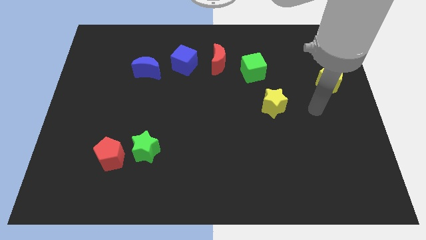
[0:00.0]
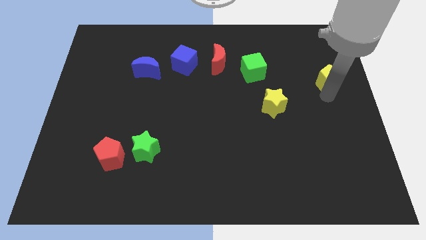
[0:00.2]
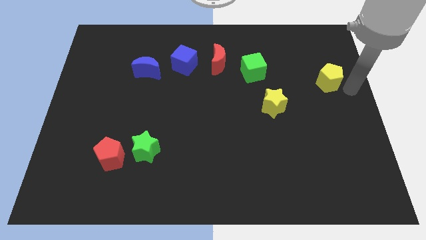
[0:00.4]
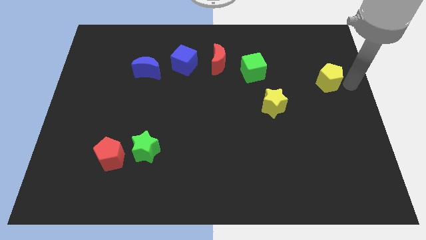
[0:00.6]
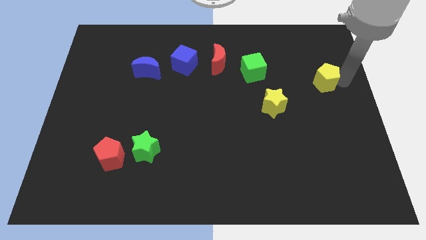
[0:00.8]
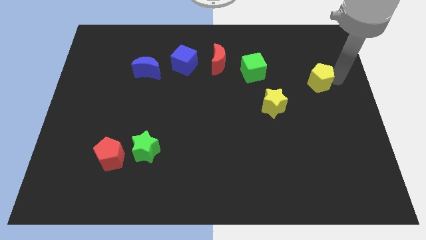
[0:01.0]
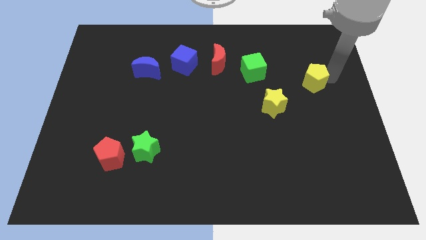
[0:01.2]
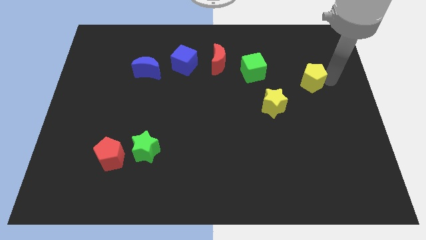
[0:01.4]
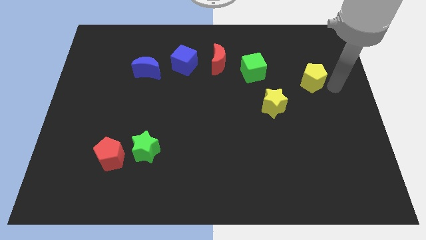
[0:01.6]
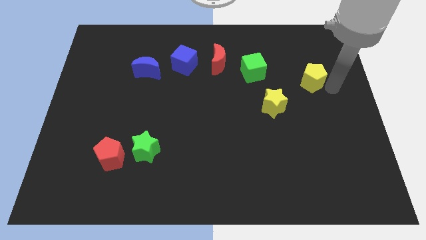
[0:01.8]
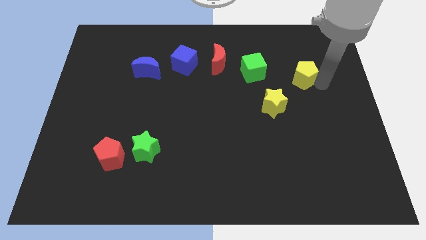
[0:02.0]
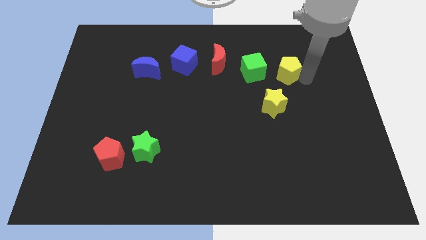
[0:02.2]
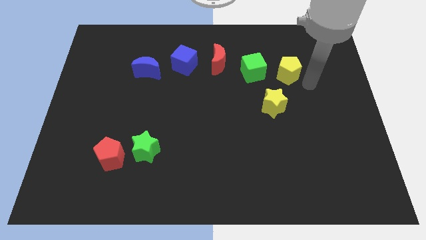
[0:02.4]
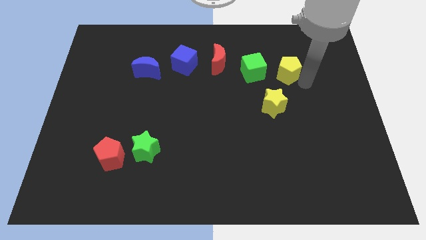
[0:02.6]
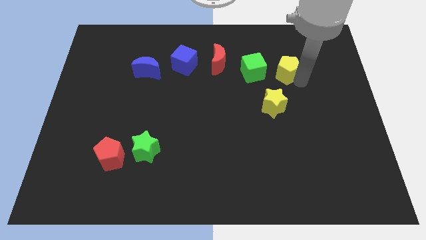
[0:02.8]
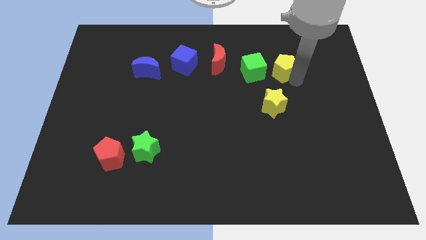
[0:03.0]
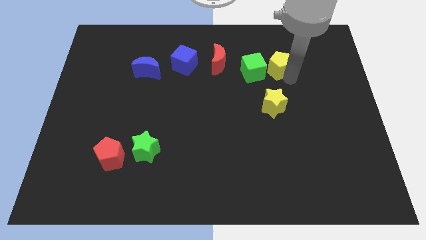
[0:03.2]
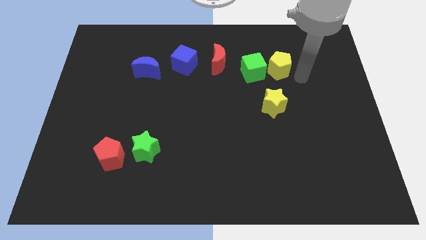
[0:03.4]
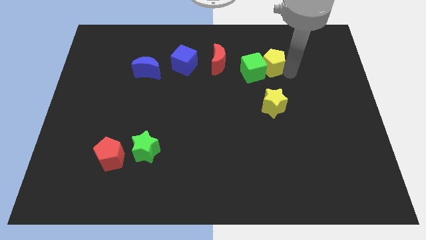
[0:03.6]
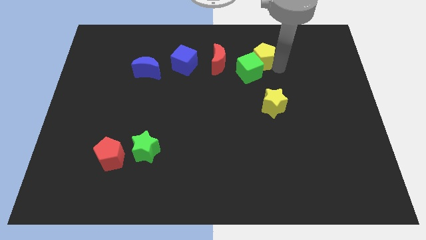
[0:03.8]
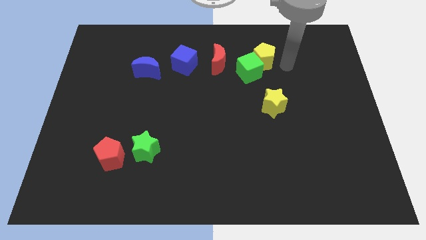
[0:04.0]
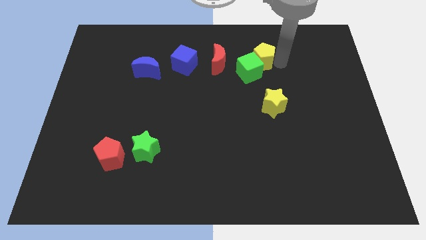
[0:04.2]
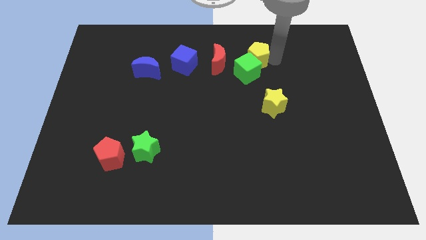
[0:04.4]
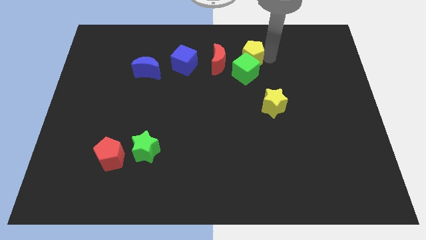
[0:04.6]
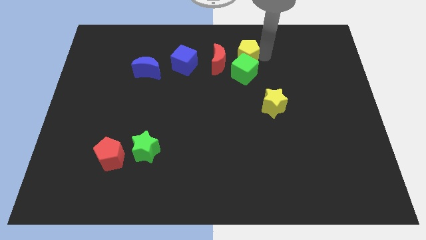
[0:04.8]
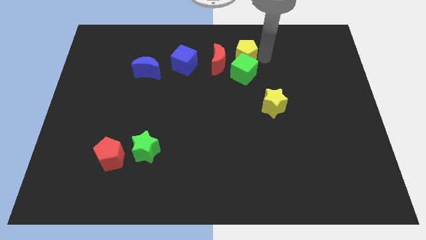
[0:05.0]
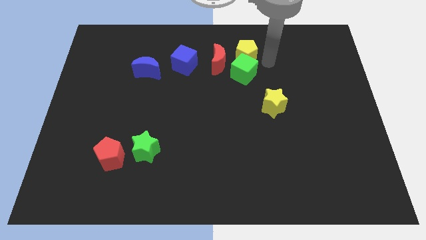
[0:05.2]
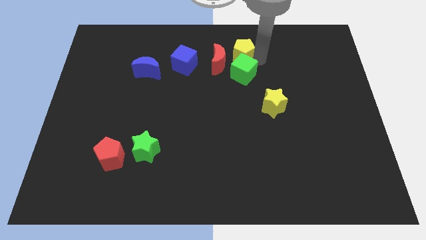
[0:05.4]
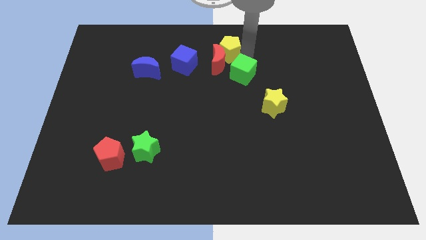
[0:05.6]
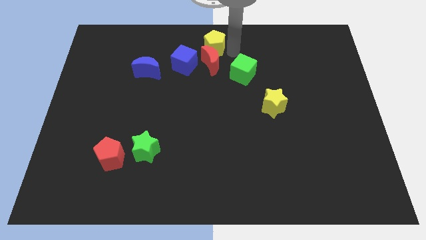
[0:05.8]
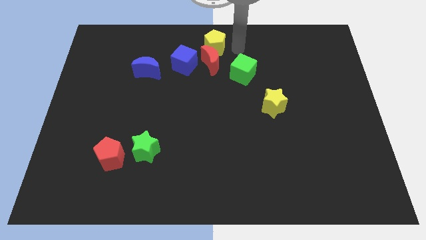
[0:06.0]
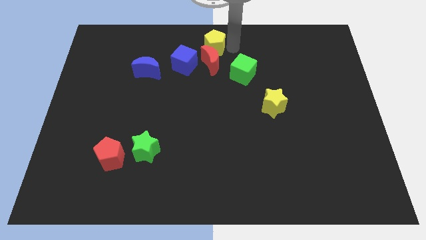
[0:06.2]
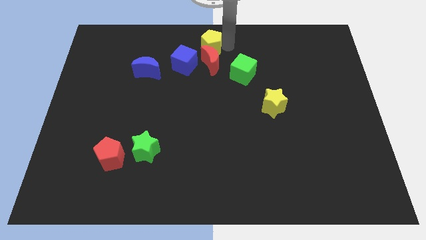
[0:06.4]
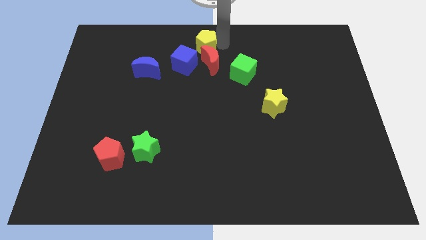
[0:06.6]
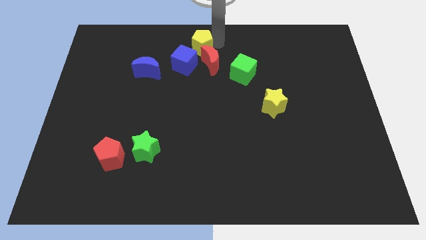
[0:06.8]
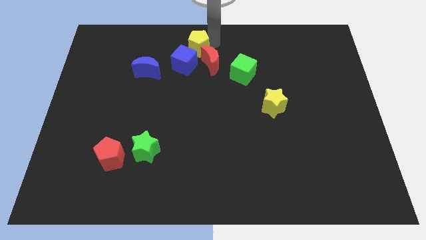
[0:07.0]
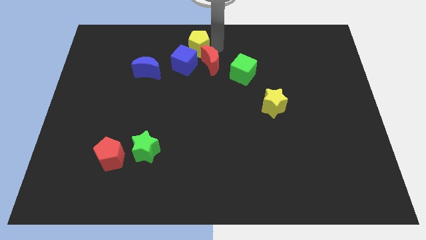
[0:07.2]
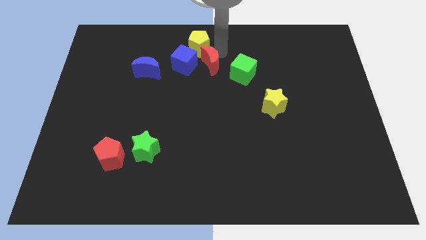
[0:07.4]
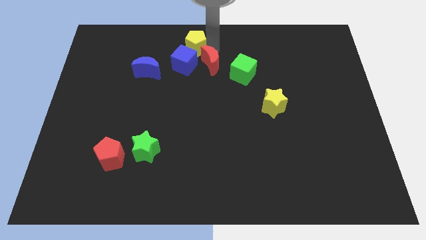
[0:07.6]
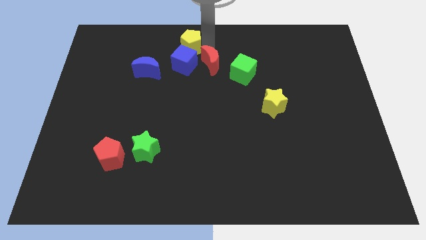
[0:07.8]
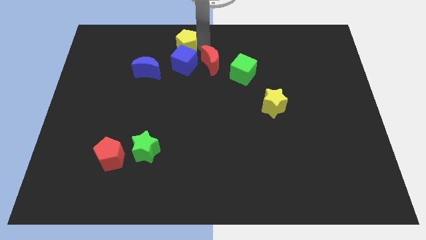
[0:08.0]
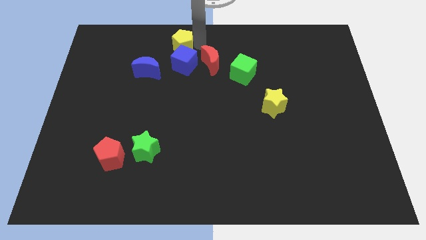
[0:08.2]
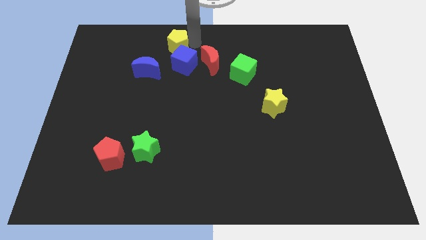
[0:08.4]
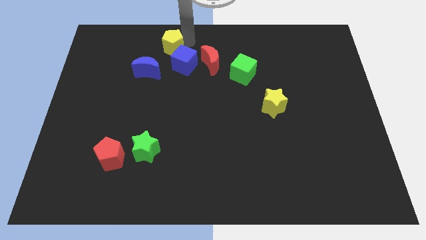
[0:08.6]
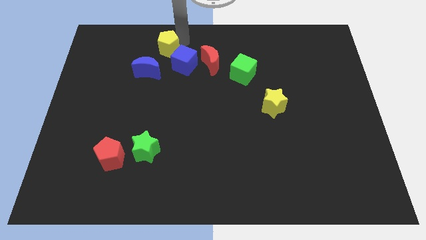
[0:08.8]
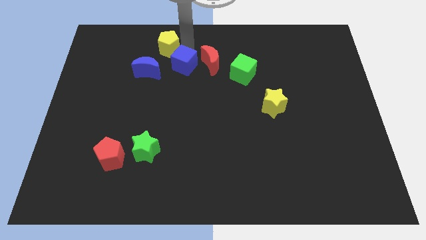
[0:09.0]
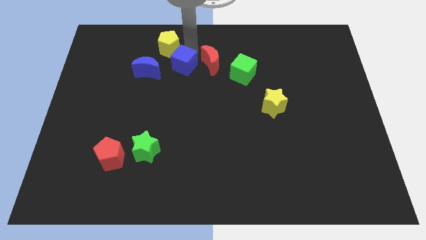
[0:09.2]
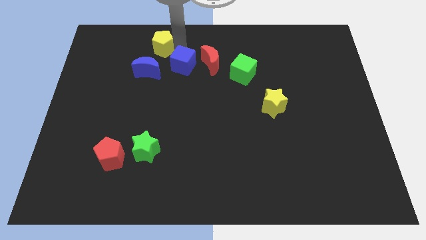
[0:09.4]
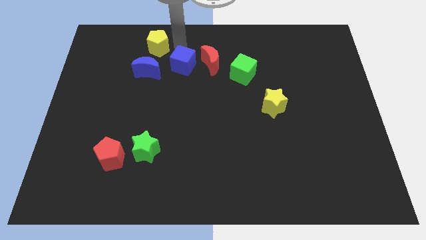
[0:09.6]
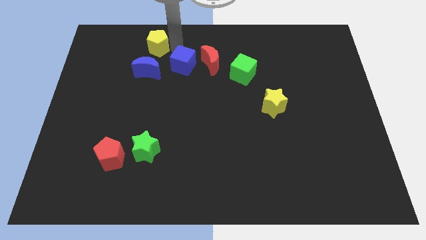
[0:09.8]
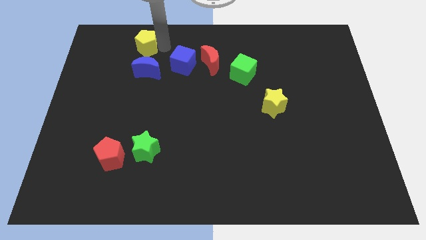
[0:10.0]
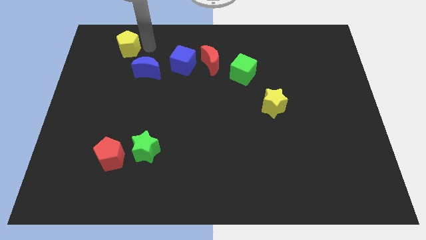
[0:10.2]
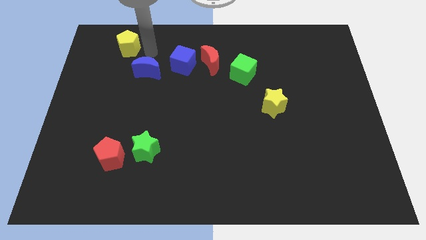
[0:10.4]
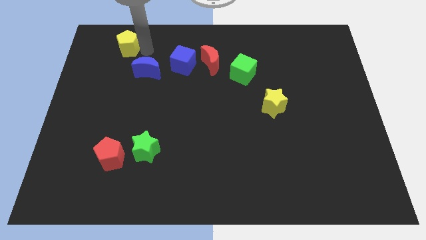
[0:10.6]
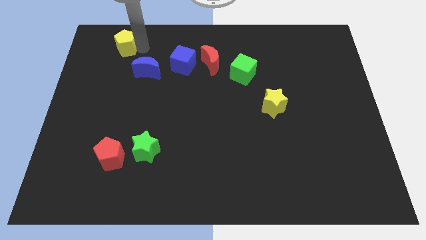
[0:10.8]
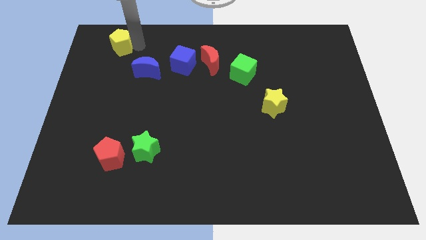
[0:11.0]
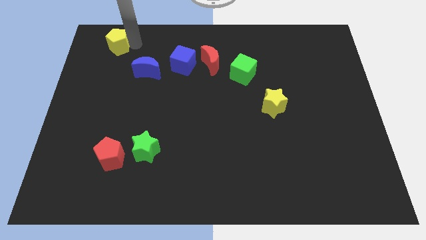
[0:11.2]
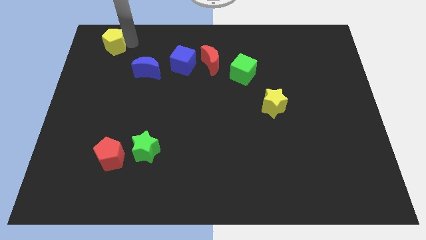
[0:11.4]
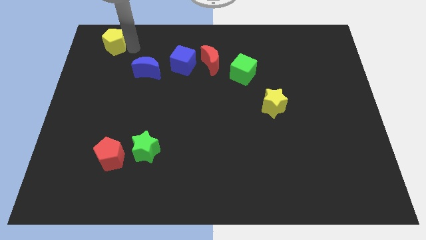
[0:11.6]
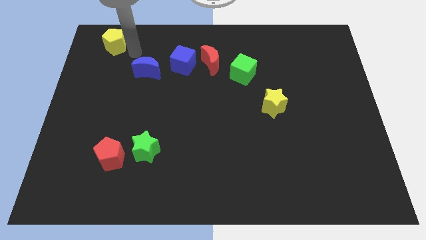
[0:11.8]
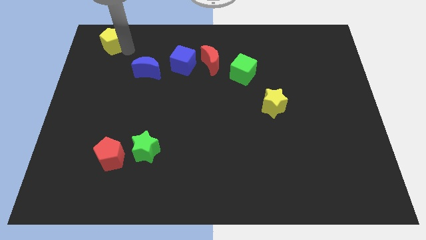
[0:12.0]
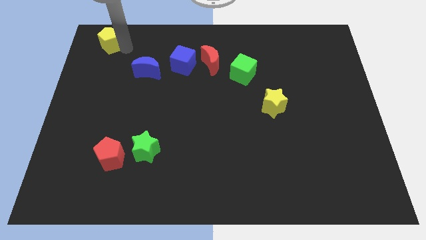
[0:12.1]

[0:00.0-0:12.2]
slide the yellow pentagon to the top left of the board
